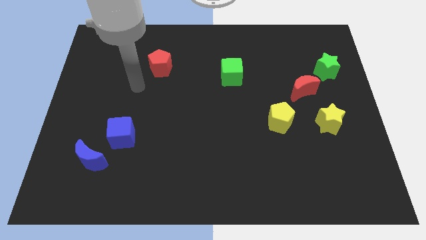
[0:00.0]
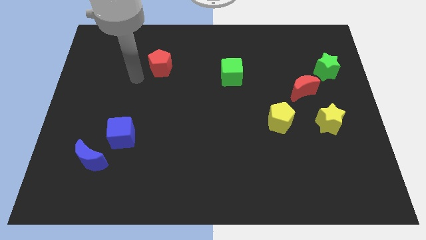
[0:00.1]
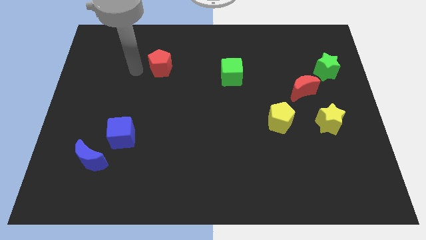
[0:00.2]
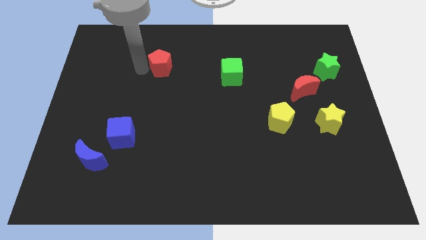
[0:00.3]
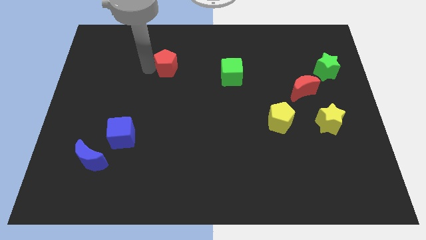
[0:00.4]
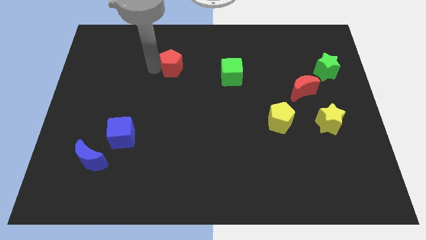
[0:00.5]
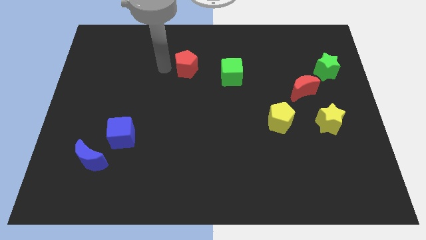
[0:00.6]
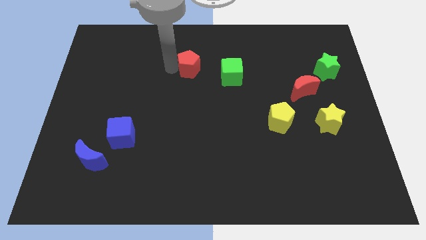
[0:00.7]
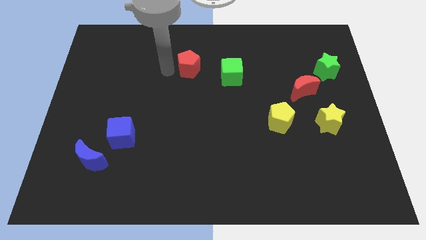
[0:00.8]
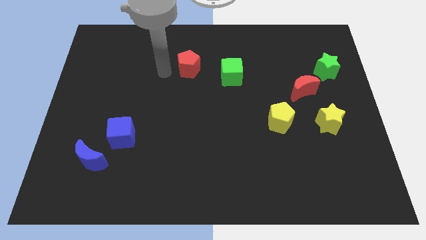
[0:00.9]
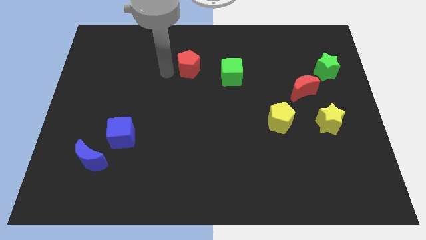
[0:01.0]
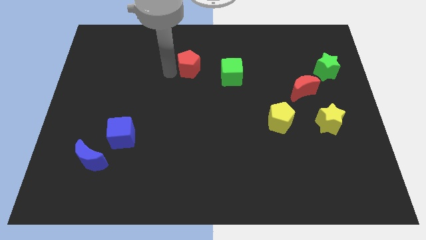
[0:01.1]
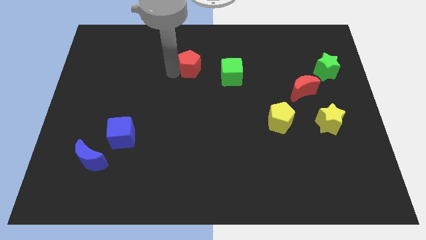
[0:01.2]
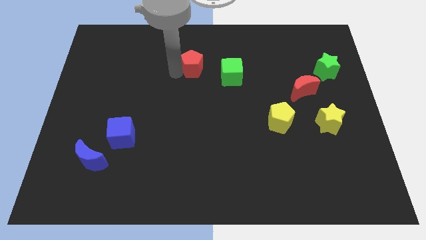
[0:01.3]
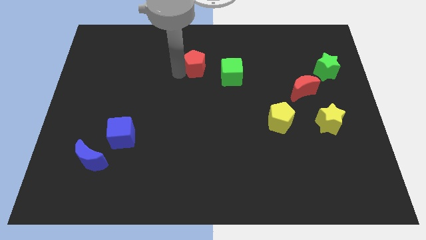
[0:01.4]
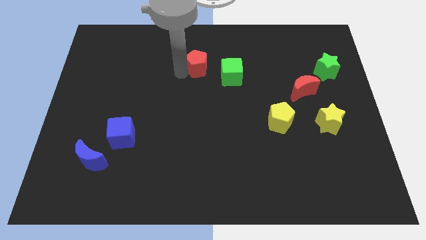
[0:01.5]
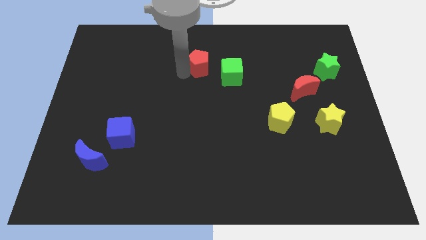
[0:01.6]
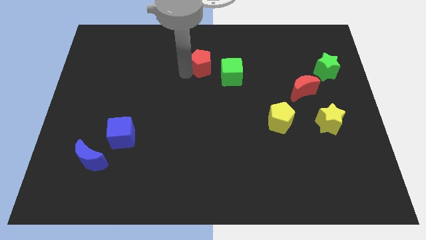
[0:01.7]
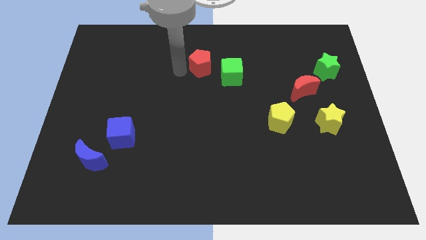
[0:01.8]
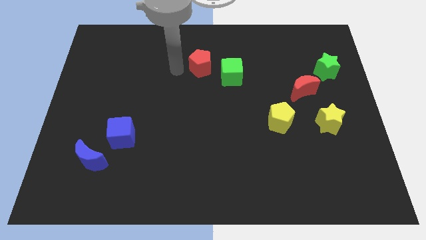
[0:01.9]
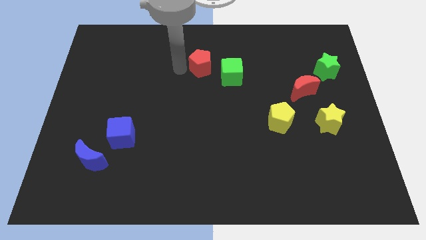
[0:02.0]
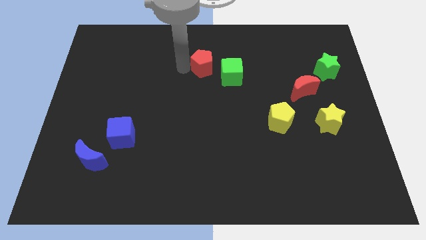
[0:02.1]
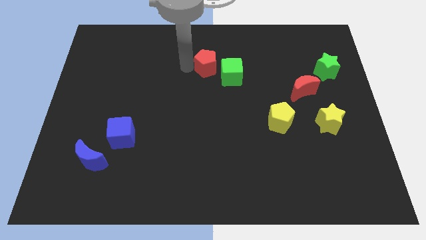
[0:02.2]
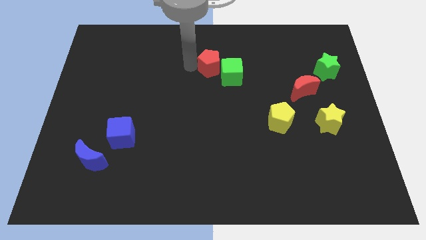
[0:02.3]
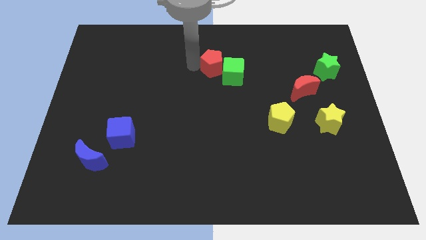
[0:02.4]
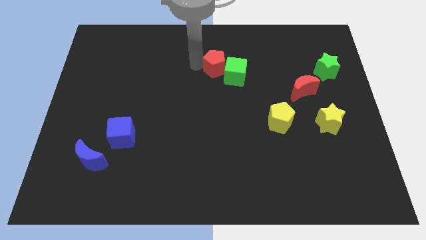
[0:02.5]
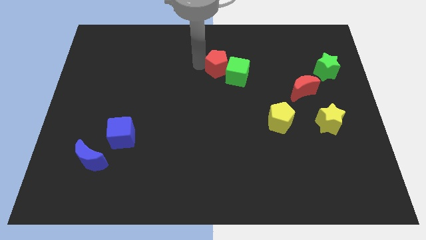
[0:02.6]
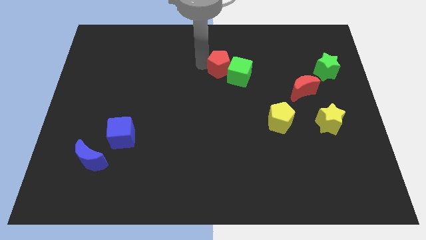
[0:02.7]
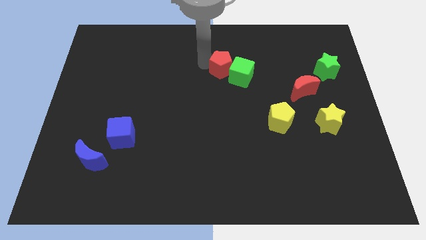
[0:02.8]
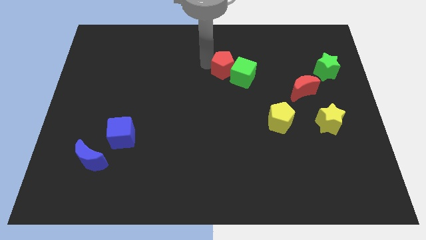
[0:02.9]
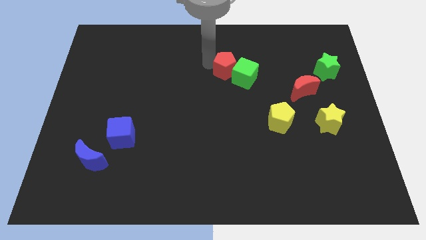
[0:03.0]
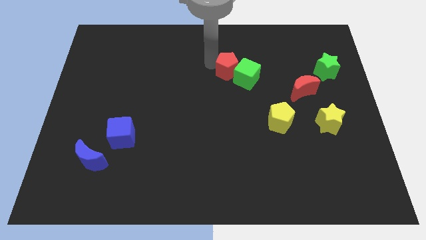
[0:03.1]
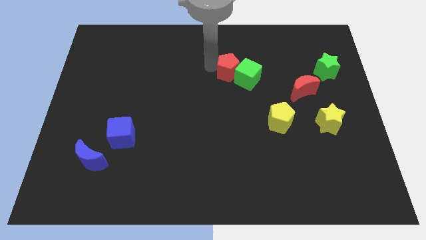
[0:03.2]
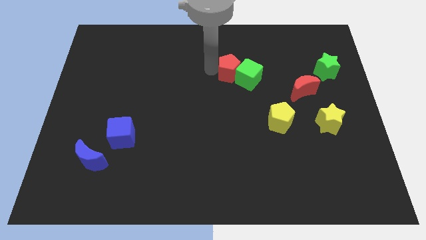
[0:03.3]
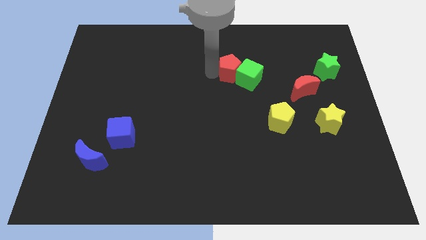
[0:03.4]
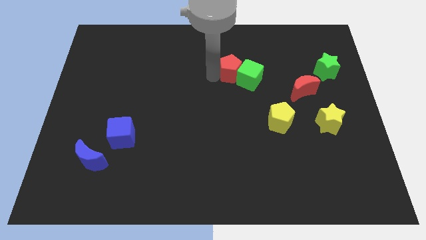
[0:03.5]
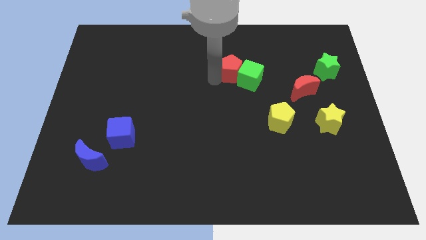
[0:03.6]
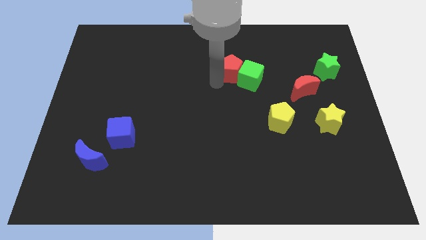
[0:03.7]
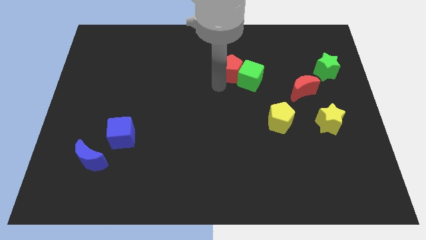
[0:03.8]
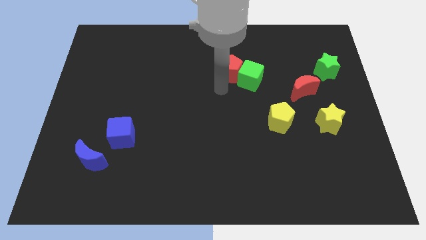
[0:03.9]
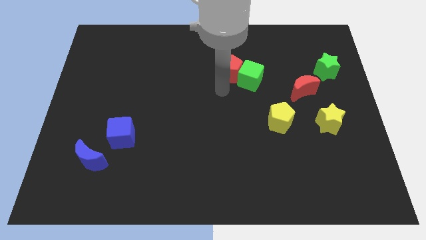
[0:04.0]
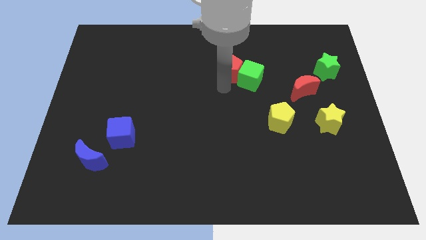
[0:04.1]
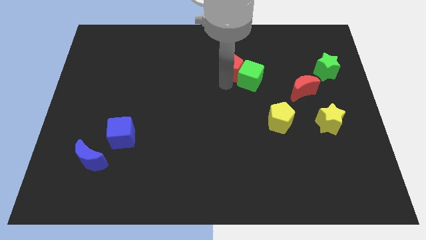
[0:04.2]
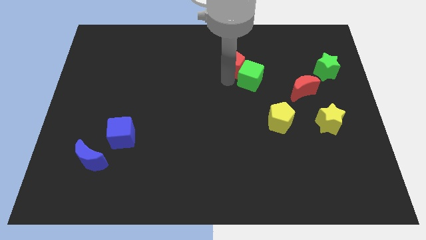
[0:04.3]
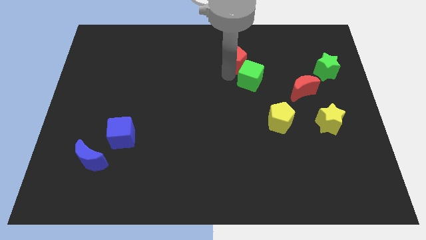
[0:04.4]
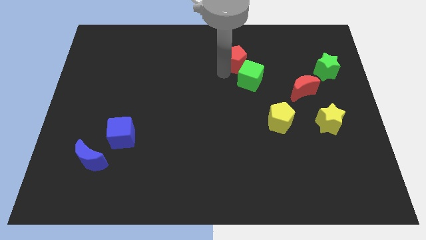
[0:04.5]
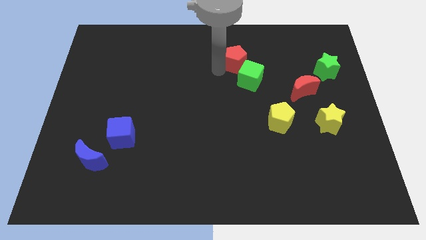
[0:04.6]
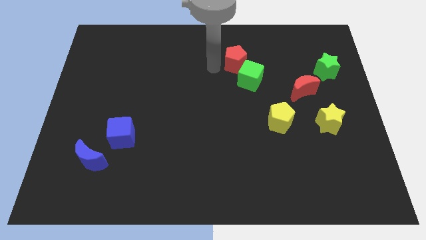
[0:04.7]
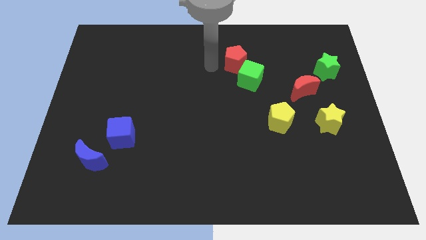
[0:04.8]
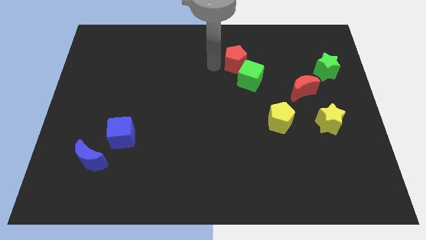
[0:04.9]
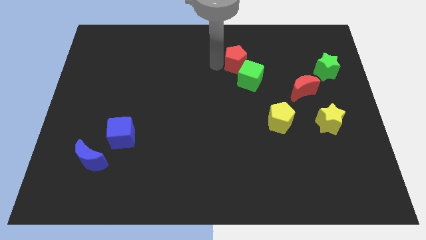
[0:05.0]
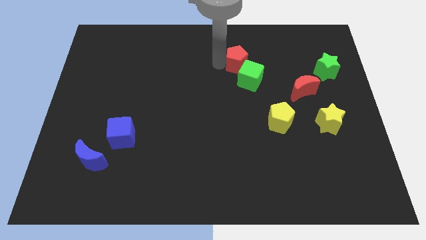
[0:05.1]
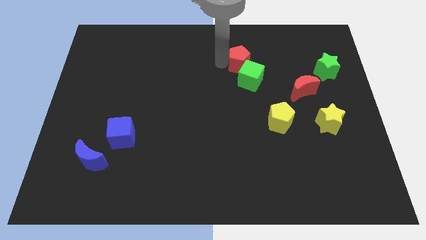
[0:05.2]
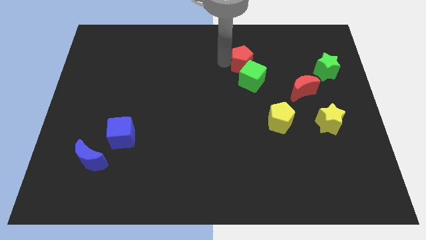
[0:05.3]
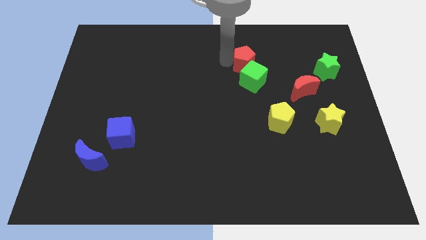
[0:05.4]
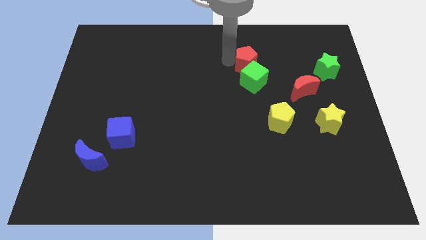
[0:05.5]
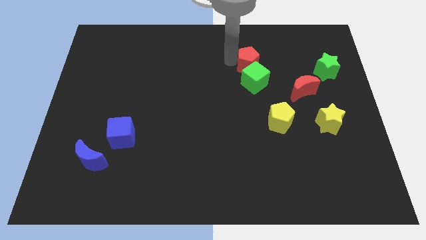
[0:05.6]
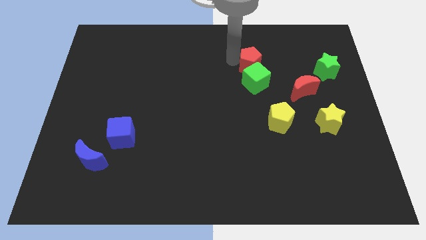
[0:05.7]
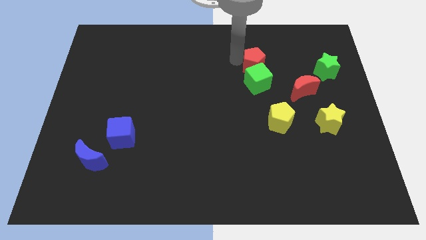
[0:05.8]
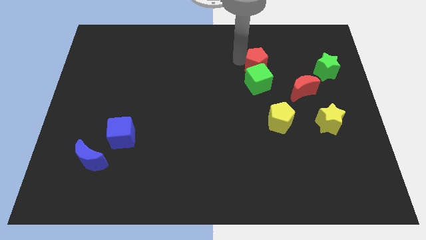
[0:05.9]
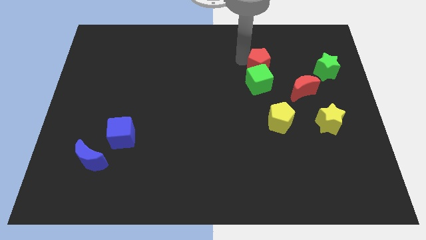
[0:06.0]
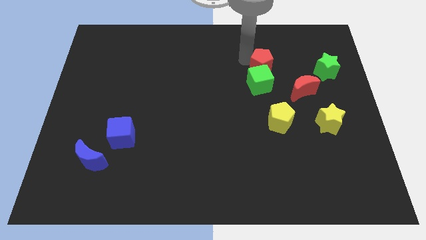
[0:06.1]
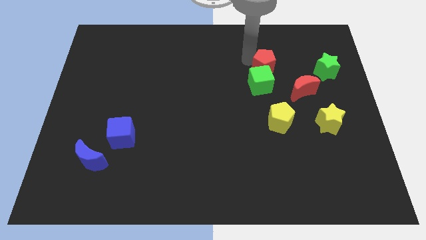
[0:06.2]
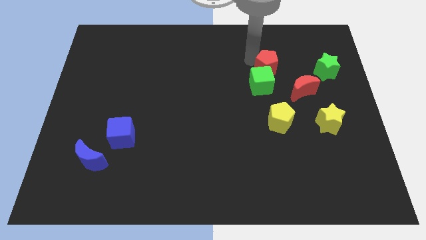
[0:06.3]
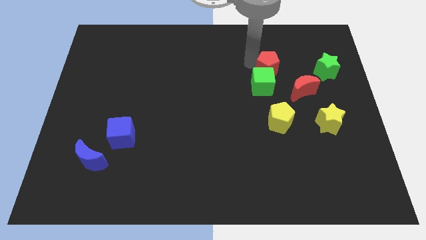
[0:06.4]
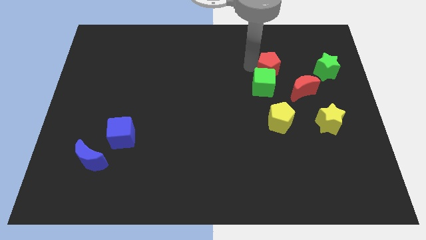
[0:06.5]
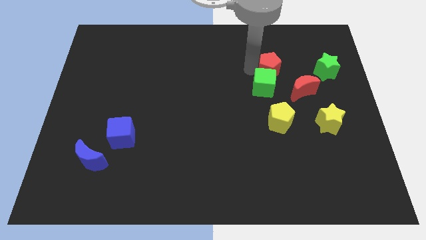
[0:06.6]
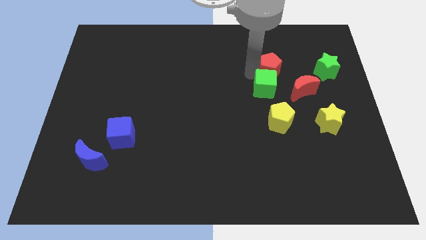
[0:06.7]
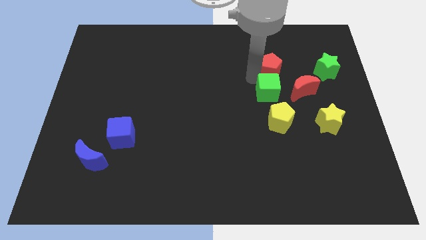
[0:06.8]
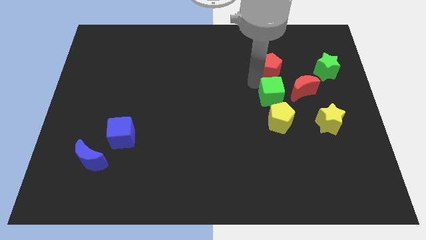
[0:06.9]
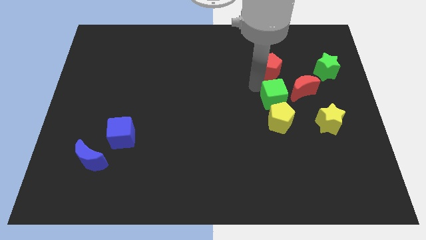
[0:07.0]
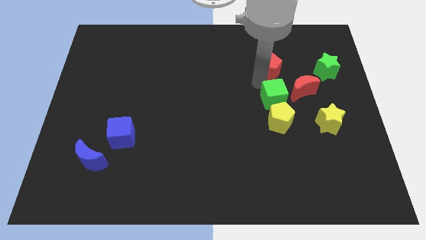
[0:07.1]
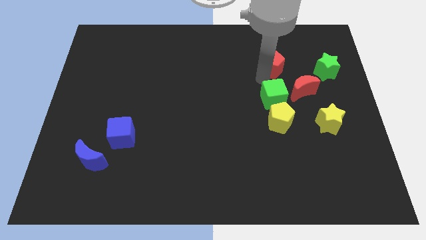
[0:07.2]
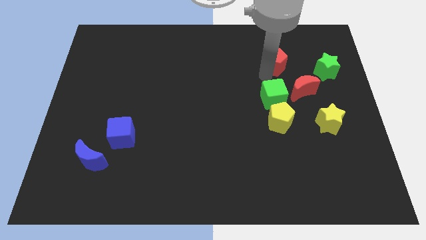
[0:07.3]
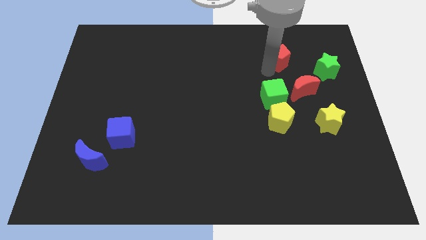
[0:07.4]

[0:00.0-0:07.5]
push the red pentagon above the red moon
